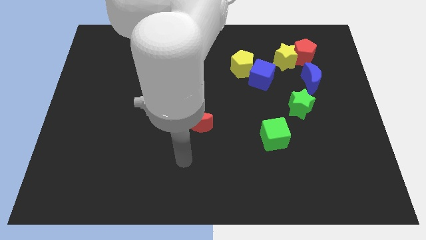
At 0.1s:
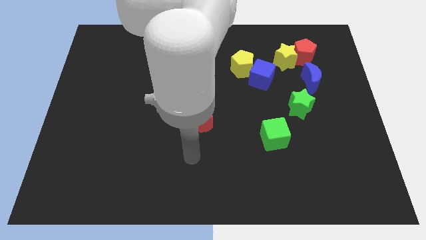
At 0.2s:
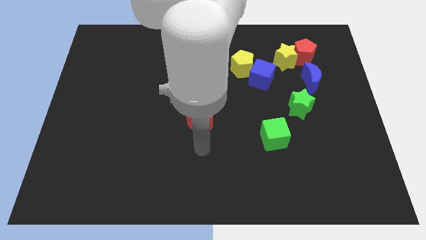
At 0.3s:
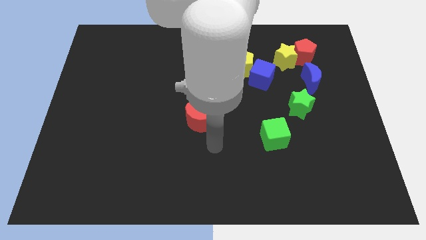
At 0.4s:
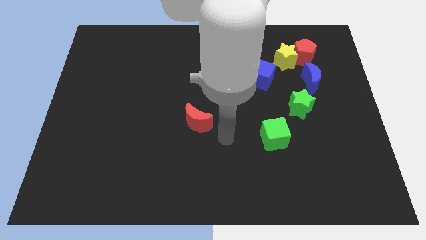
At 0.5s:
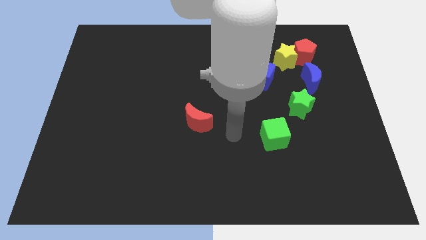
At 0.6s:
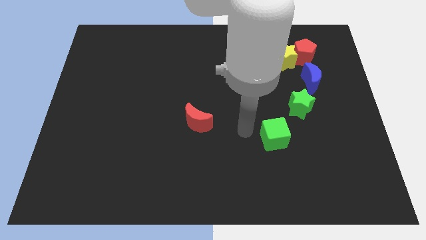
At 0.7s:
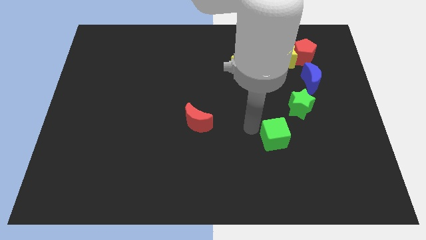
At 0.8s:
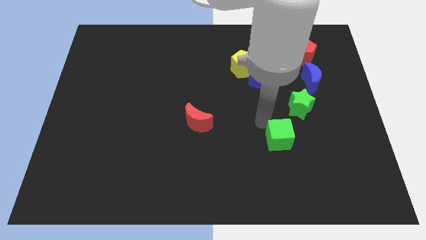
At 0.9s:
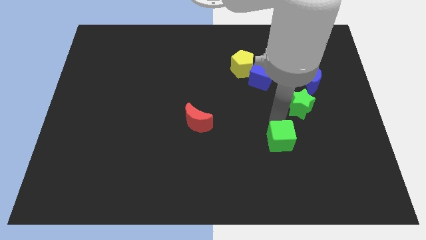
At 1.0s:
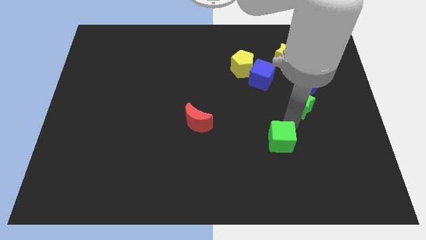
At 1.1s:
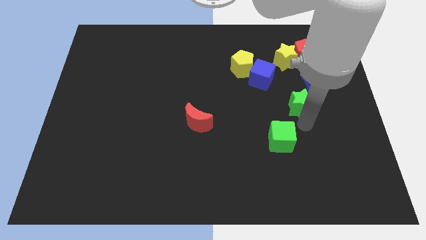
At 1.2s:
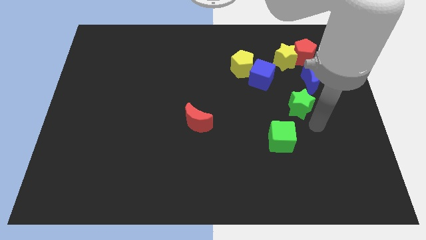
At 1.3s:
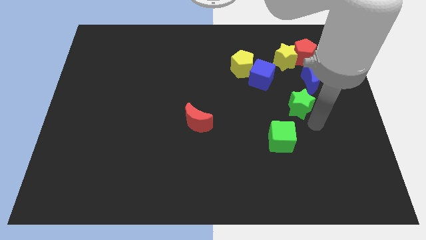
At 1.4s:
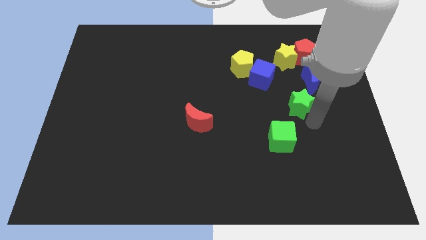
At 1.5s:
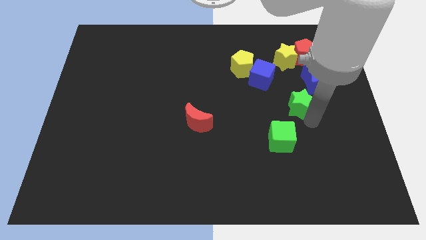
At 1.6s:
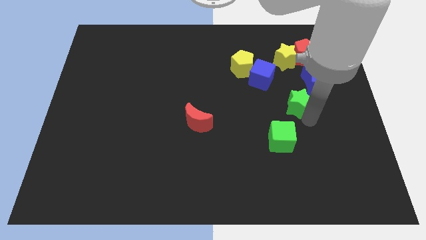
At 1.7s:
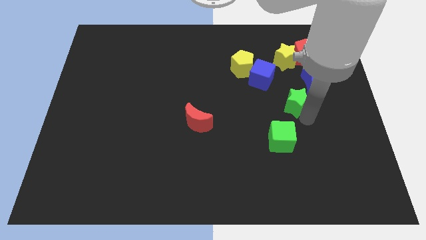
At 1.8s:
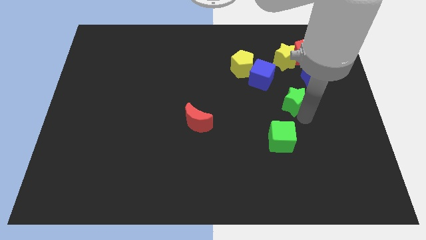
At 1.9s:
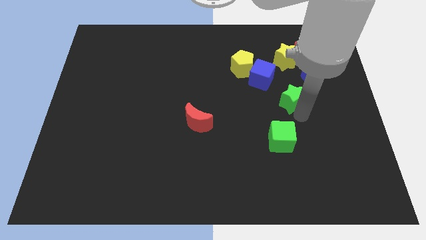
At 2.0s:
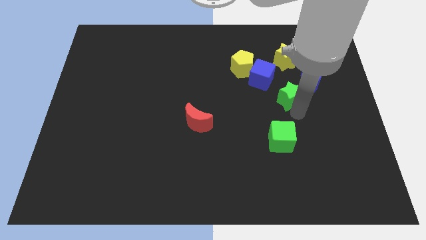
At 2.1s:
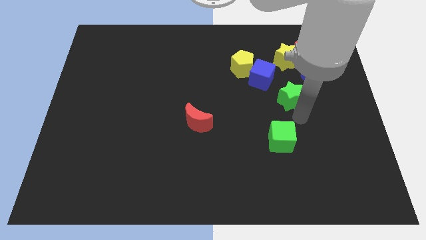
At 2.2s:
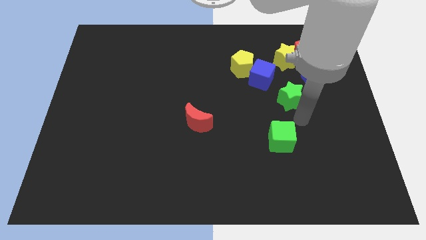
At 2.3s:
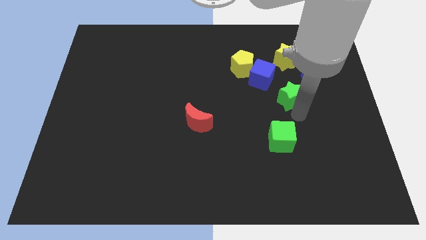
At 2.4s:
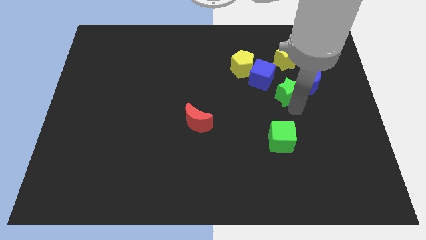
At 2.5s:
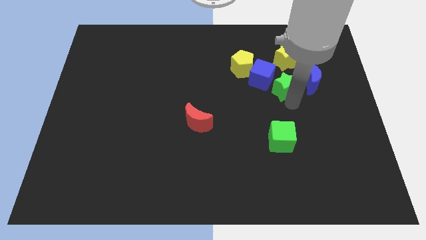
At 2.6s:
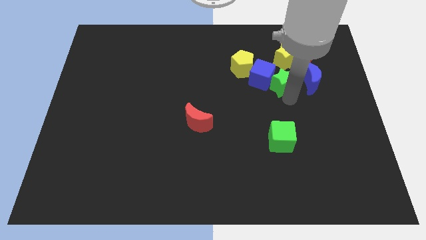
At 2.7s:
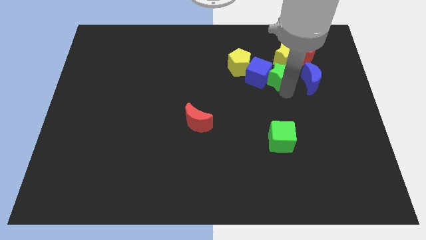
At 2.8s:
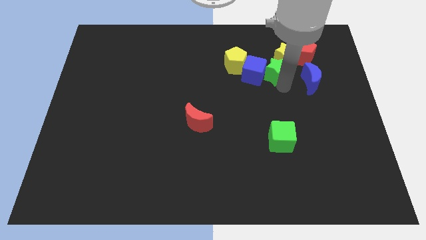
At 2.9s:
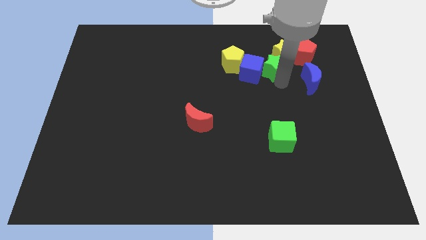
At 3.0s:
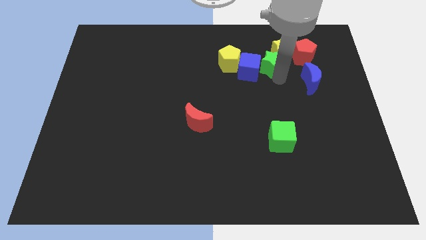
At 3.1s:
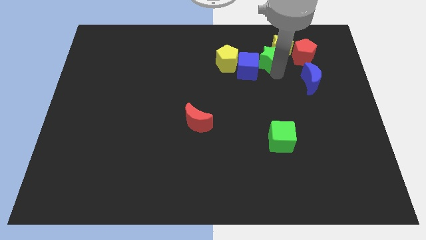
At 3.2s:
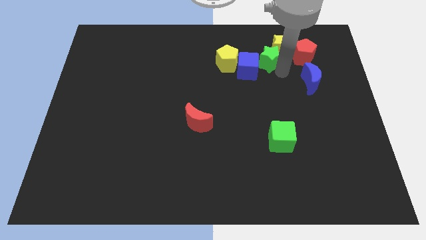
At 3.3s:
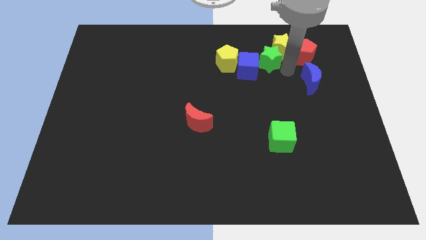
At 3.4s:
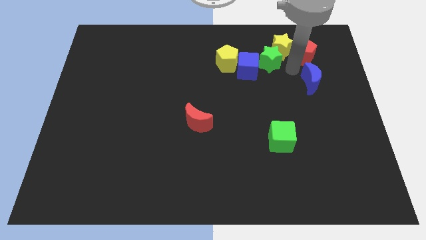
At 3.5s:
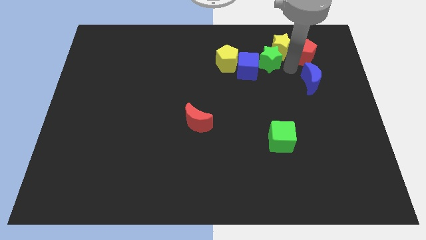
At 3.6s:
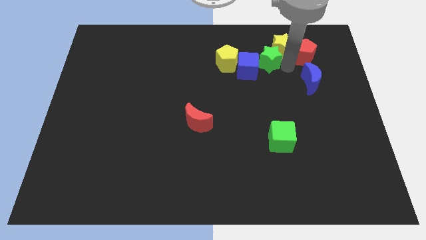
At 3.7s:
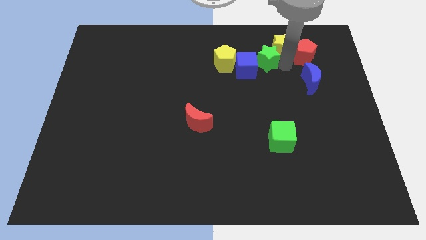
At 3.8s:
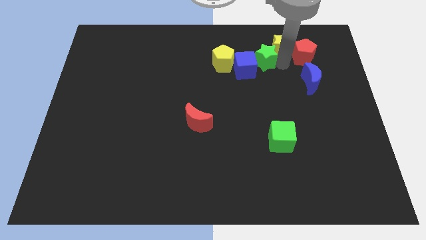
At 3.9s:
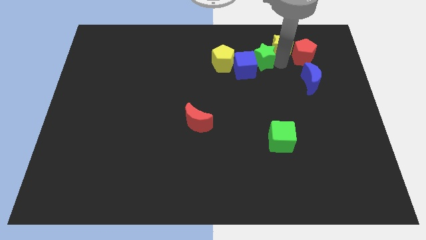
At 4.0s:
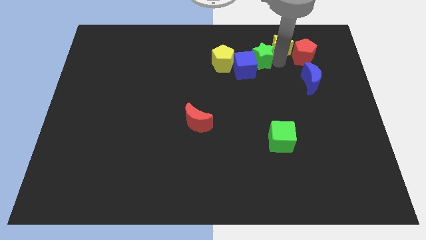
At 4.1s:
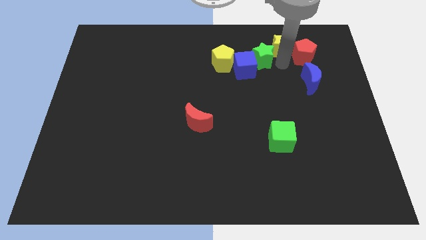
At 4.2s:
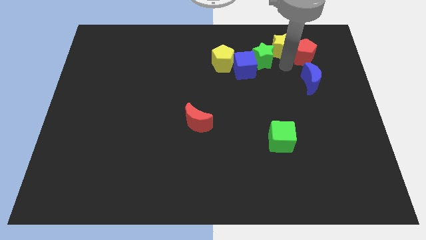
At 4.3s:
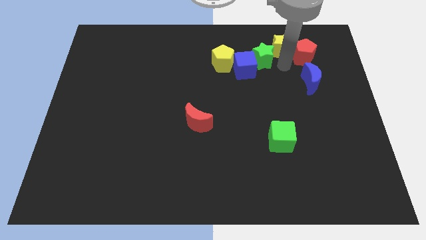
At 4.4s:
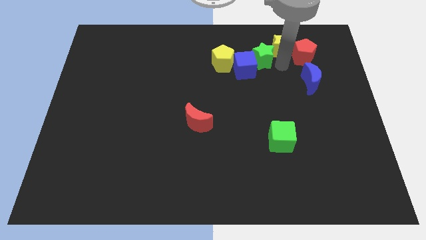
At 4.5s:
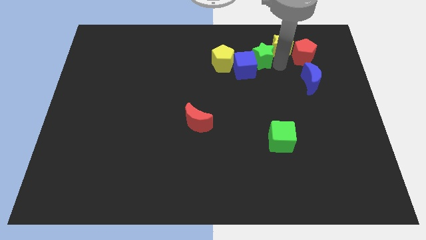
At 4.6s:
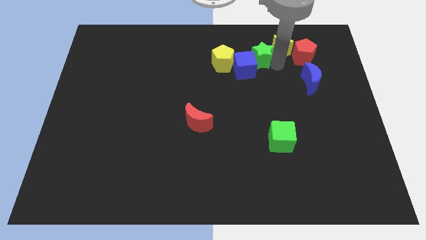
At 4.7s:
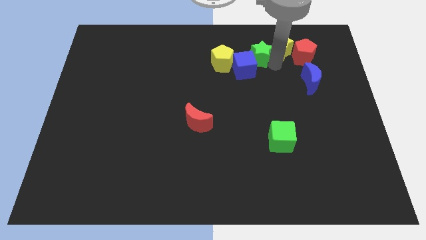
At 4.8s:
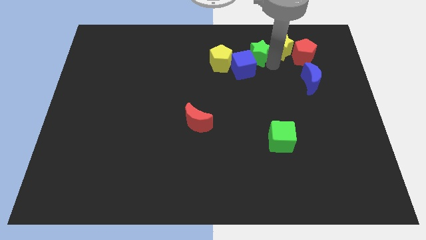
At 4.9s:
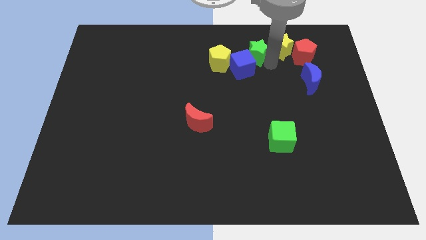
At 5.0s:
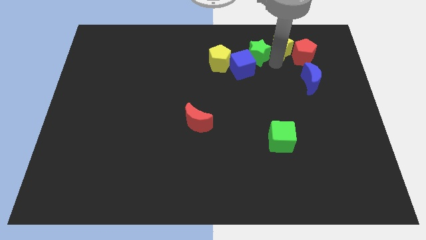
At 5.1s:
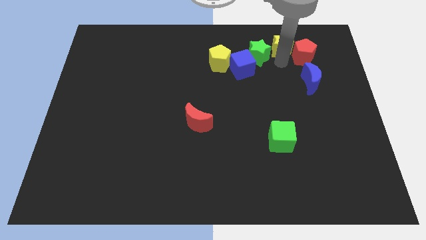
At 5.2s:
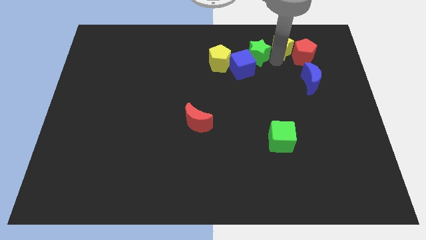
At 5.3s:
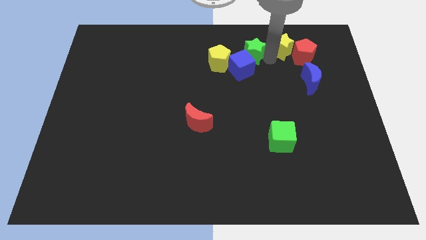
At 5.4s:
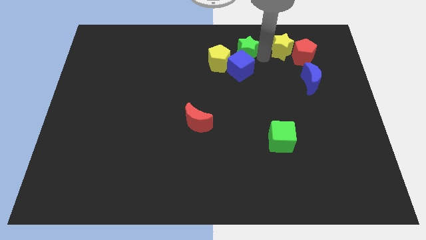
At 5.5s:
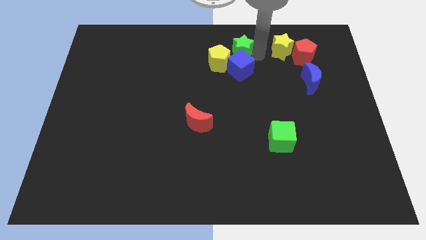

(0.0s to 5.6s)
push the green star to the towards your base

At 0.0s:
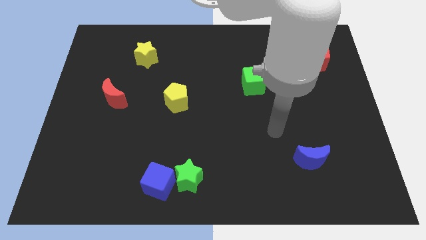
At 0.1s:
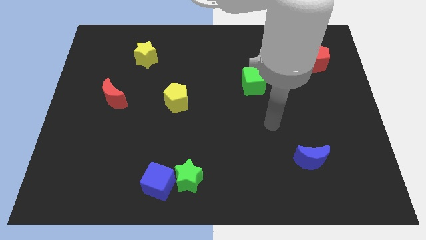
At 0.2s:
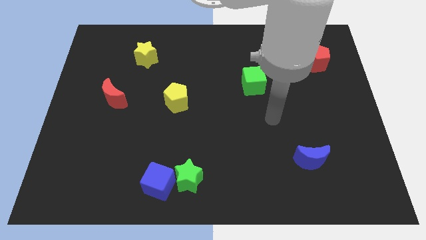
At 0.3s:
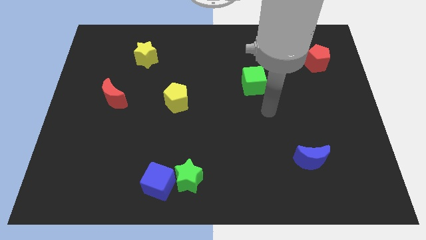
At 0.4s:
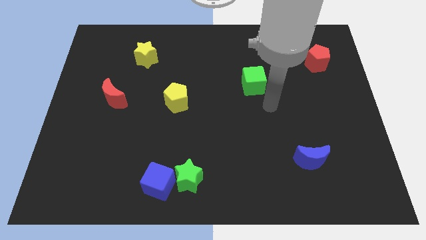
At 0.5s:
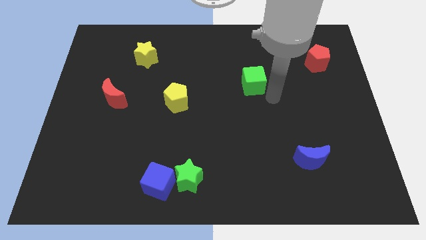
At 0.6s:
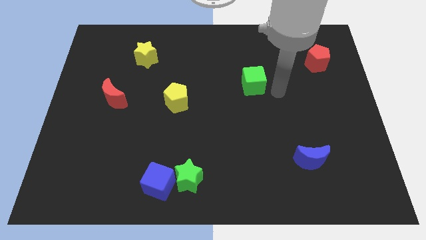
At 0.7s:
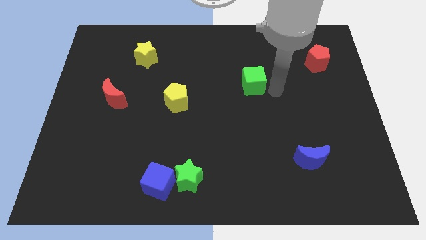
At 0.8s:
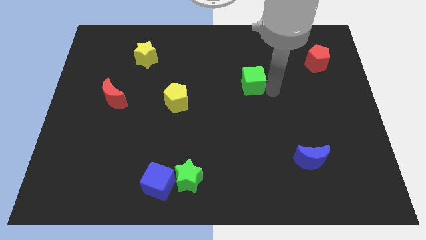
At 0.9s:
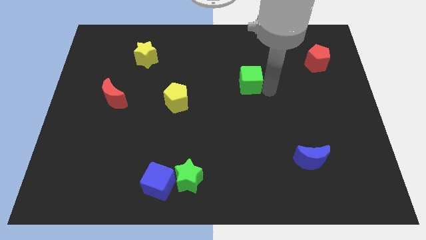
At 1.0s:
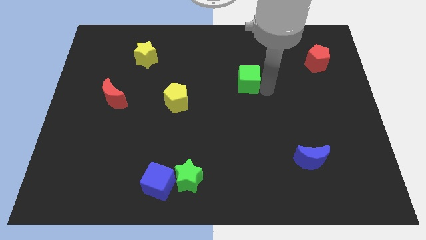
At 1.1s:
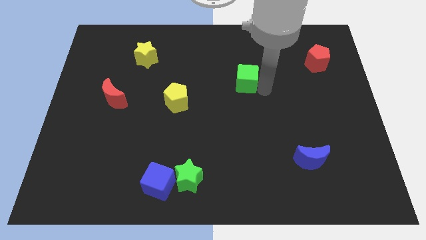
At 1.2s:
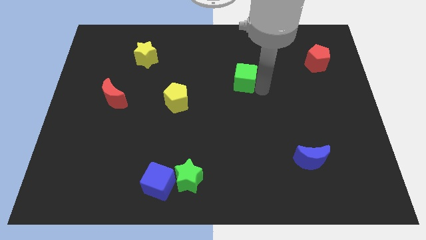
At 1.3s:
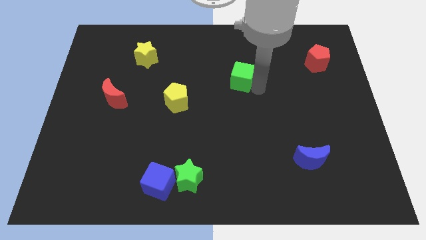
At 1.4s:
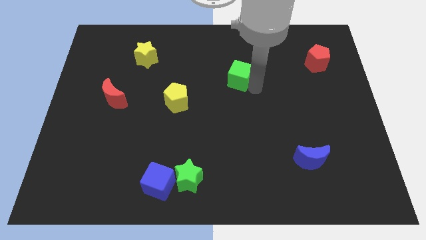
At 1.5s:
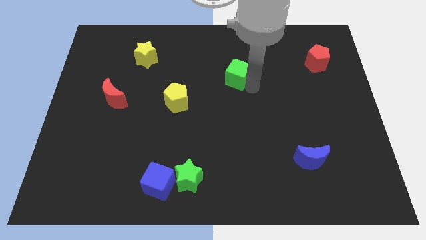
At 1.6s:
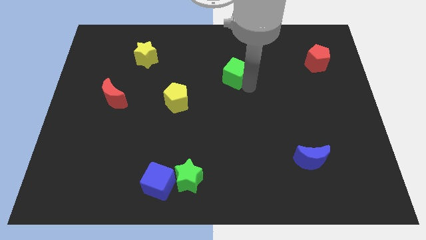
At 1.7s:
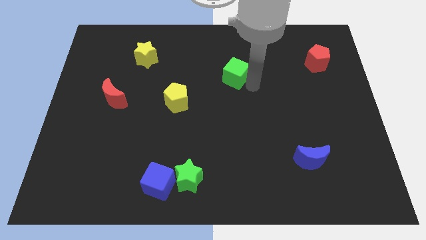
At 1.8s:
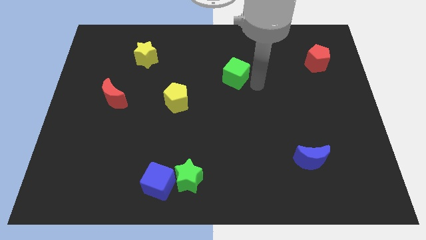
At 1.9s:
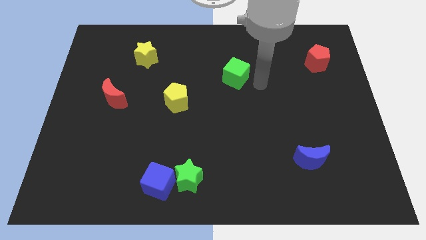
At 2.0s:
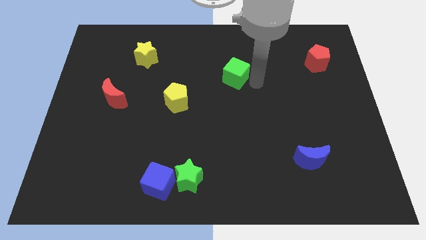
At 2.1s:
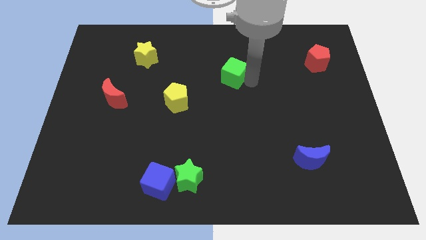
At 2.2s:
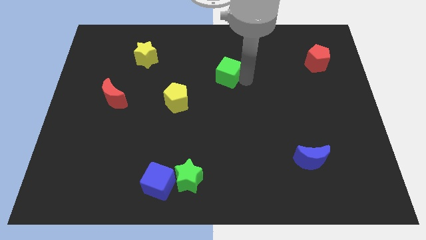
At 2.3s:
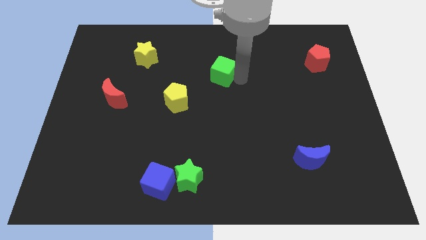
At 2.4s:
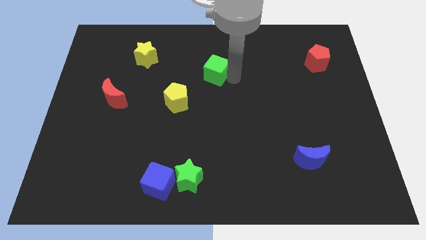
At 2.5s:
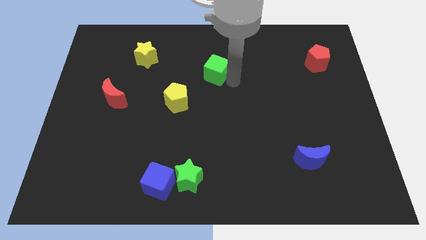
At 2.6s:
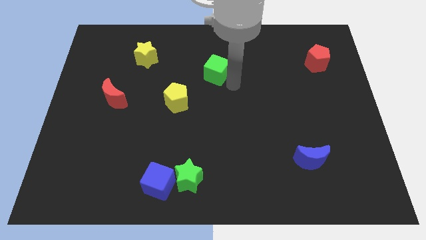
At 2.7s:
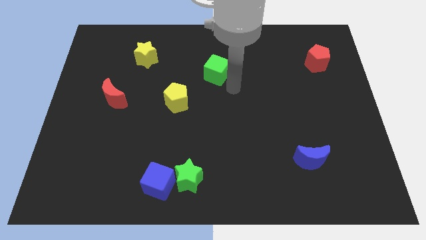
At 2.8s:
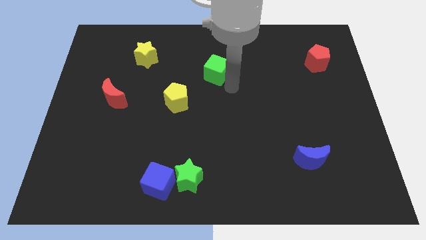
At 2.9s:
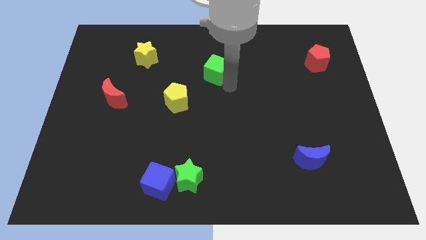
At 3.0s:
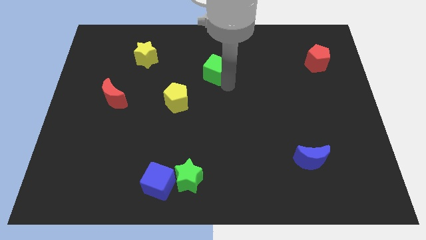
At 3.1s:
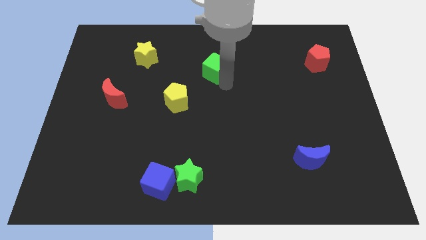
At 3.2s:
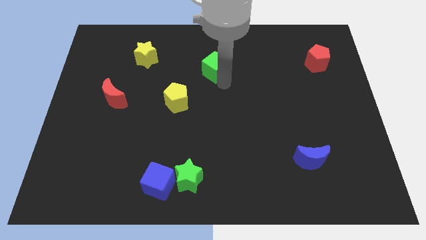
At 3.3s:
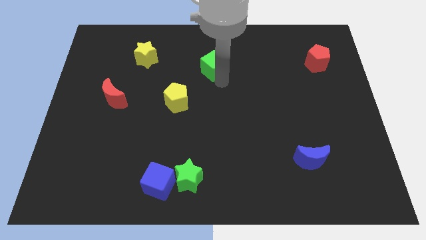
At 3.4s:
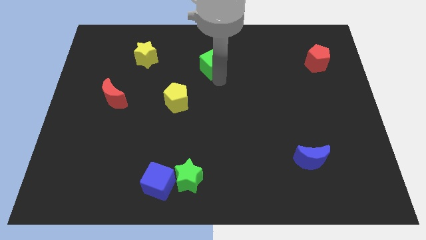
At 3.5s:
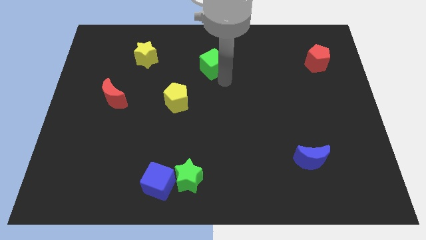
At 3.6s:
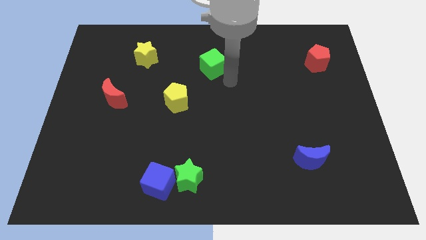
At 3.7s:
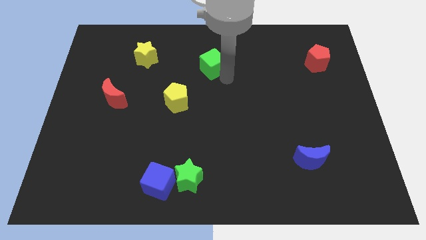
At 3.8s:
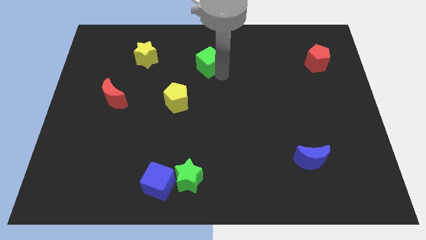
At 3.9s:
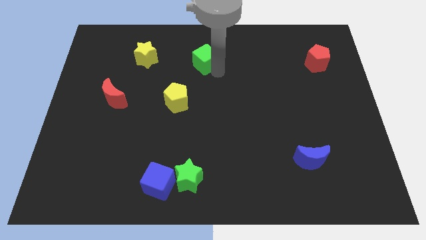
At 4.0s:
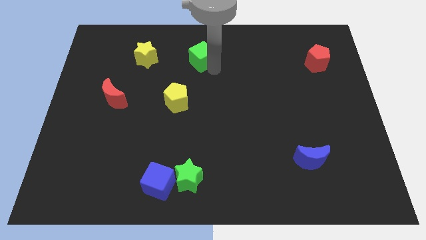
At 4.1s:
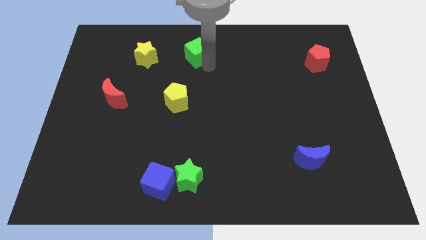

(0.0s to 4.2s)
slide the green cube to the top side
